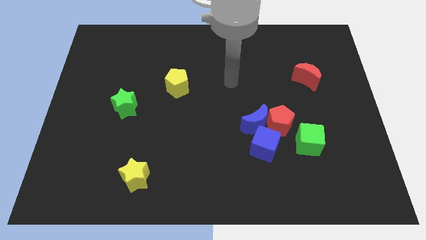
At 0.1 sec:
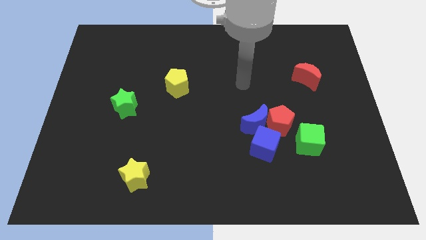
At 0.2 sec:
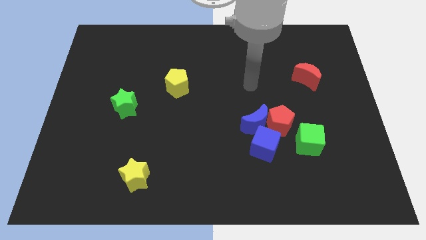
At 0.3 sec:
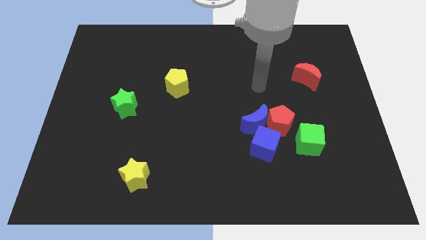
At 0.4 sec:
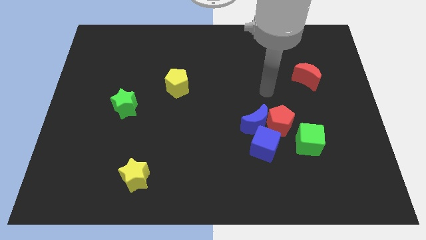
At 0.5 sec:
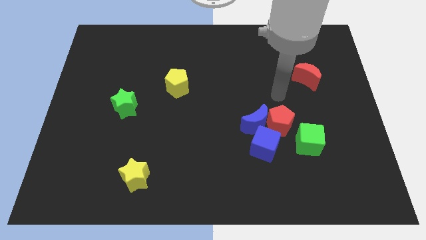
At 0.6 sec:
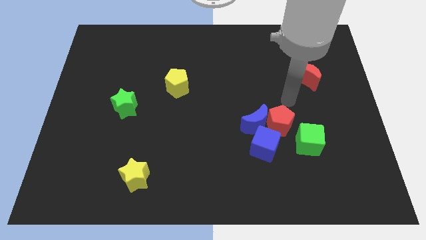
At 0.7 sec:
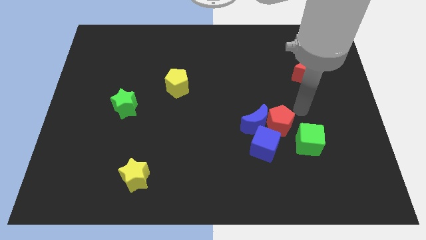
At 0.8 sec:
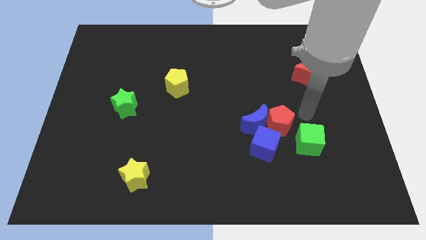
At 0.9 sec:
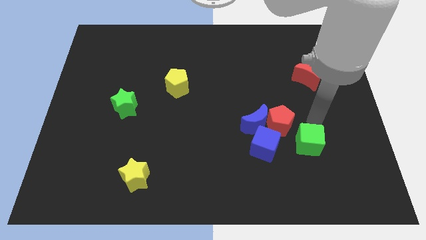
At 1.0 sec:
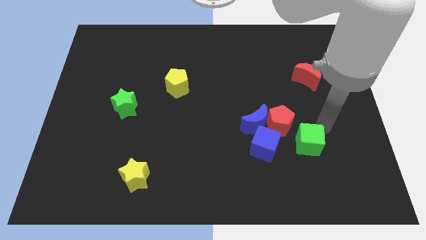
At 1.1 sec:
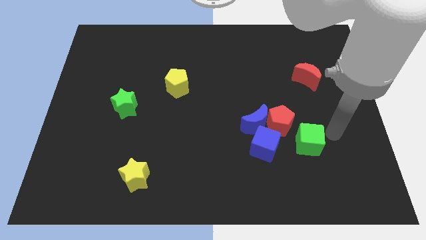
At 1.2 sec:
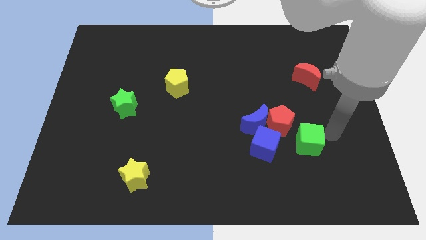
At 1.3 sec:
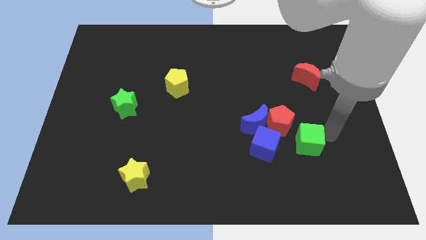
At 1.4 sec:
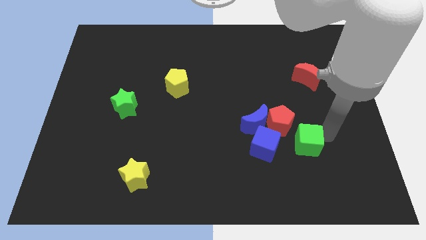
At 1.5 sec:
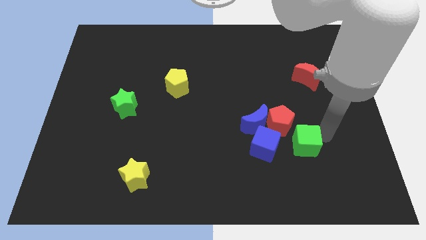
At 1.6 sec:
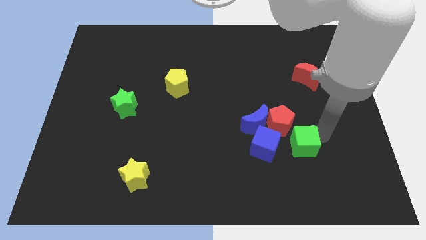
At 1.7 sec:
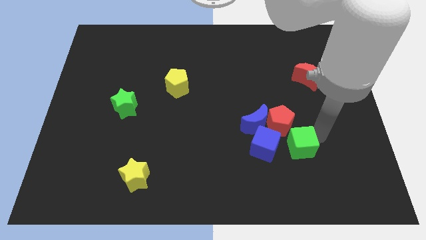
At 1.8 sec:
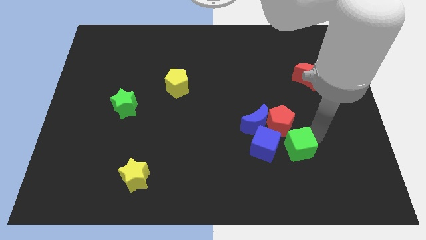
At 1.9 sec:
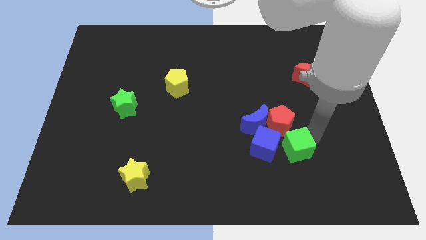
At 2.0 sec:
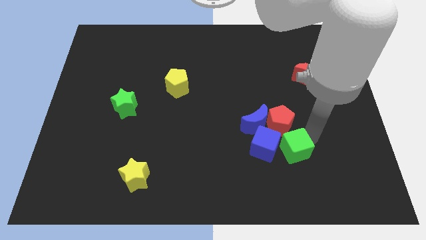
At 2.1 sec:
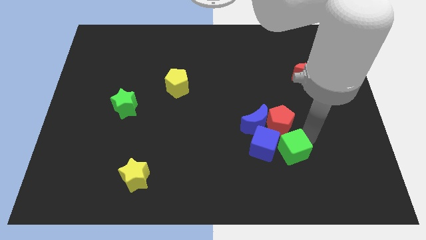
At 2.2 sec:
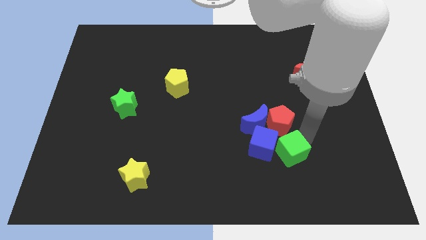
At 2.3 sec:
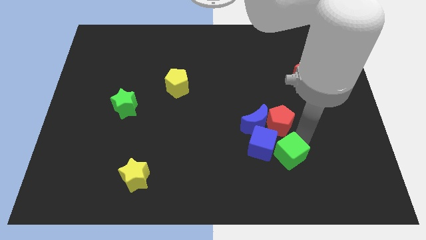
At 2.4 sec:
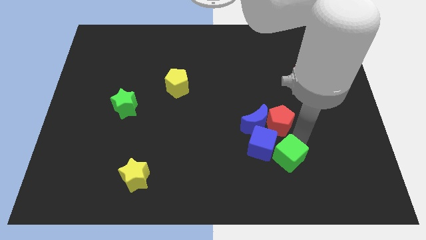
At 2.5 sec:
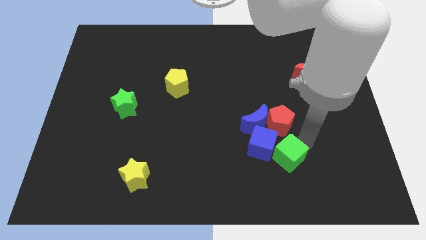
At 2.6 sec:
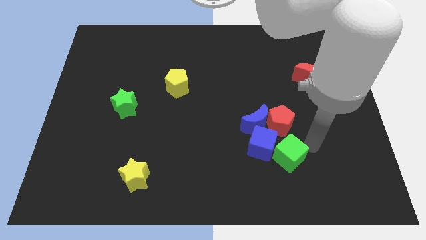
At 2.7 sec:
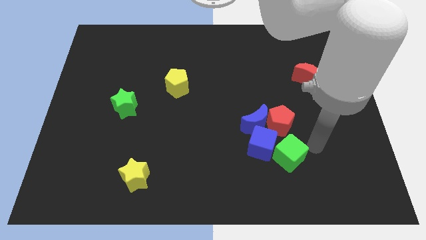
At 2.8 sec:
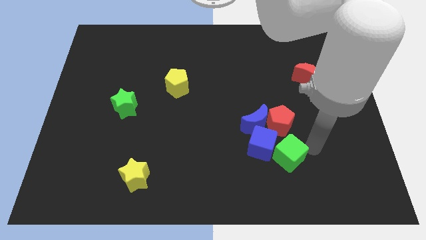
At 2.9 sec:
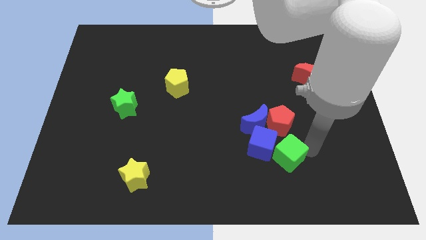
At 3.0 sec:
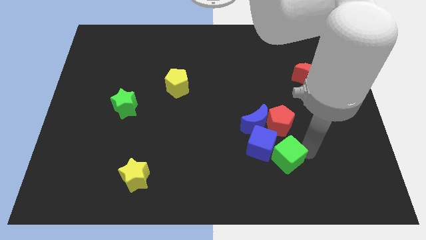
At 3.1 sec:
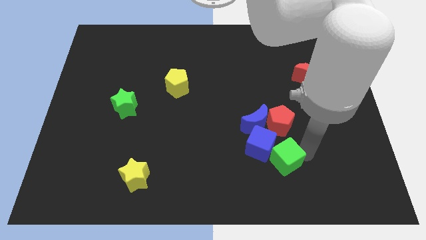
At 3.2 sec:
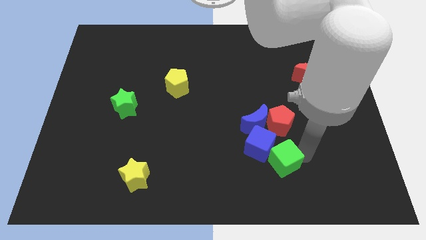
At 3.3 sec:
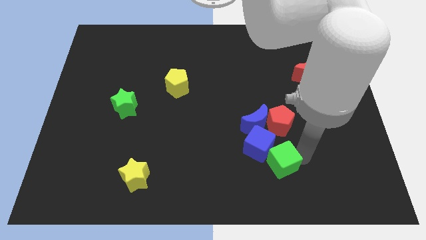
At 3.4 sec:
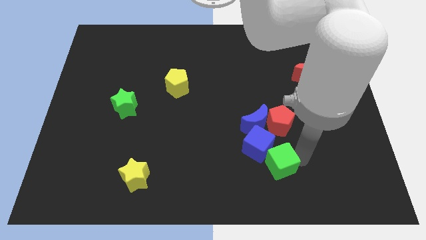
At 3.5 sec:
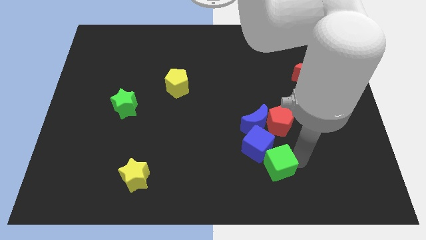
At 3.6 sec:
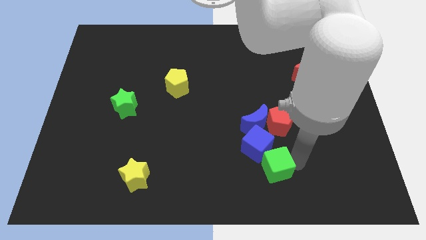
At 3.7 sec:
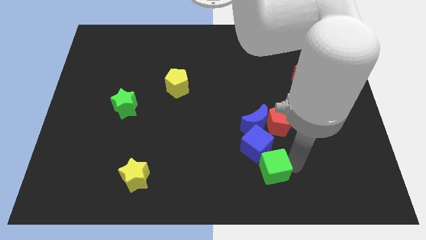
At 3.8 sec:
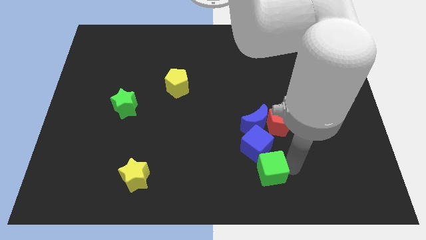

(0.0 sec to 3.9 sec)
slightly slide the green cube to the left

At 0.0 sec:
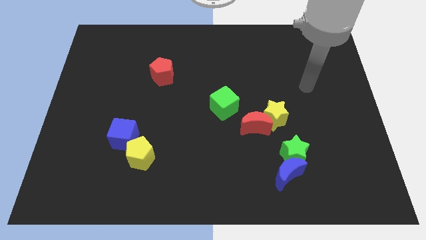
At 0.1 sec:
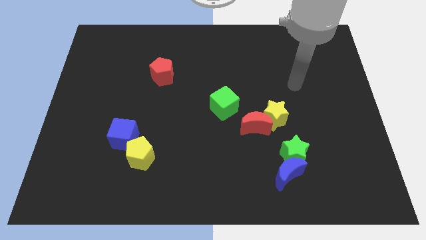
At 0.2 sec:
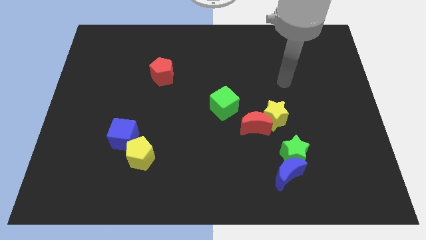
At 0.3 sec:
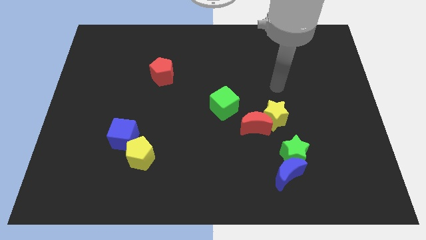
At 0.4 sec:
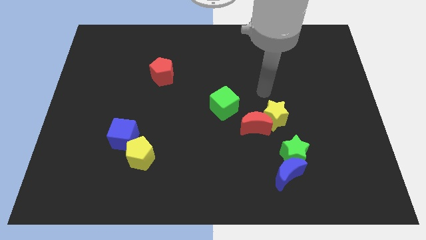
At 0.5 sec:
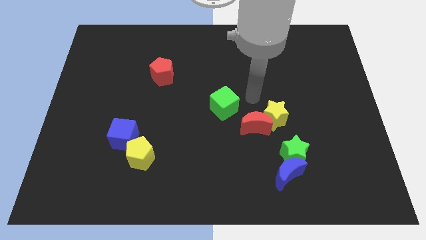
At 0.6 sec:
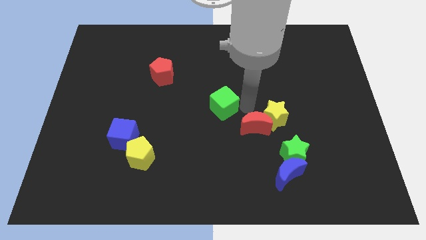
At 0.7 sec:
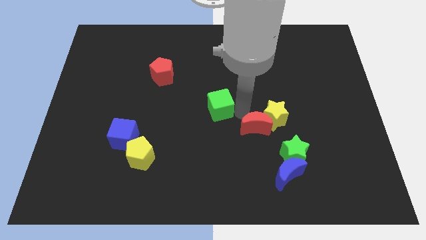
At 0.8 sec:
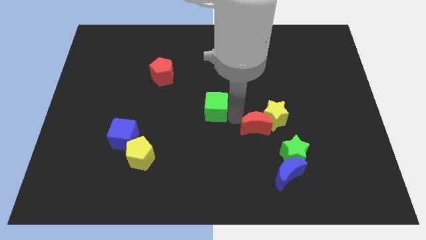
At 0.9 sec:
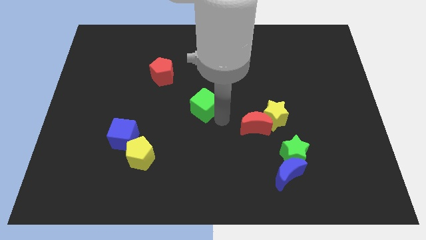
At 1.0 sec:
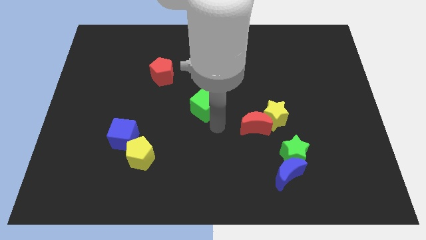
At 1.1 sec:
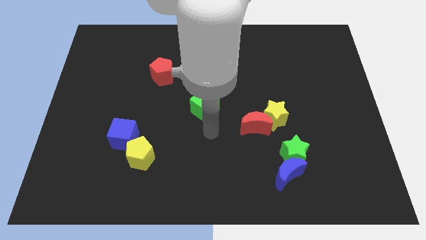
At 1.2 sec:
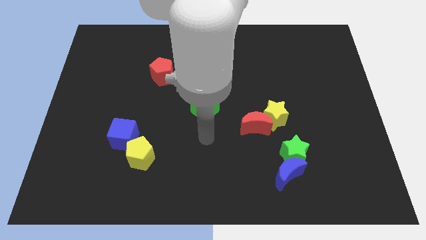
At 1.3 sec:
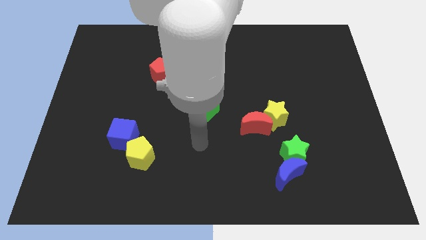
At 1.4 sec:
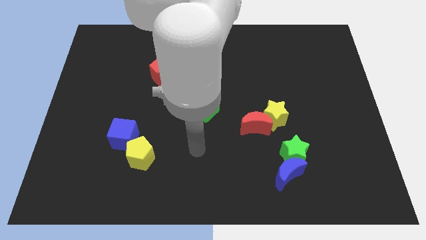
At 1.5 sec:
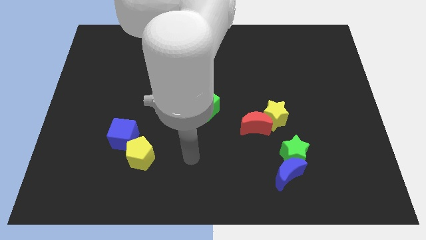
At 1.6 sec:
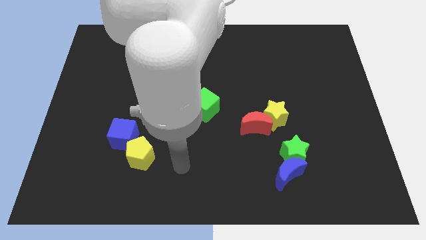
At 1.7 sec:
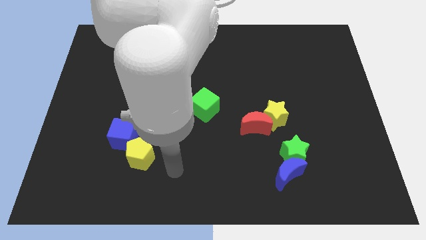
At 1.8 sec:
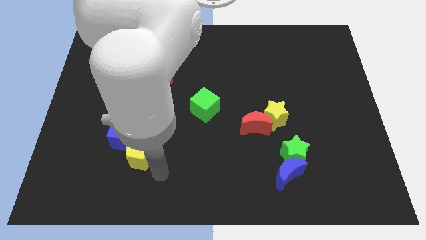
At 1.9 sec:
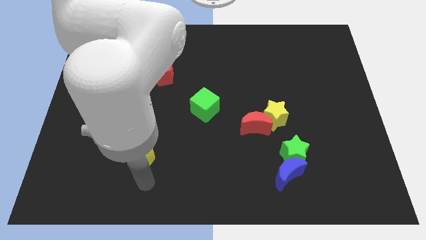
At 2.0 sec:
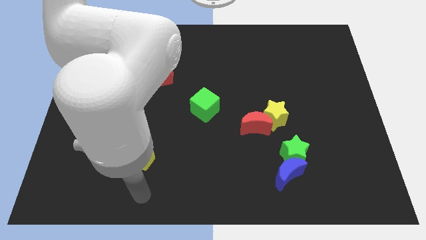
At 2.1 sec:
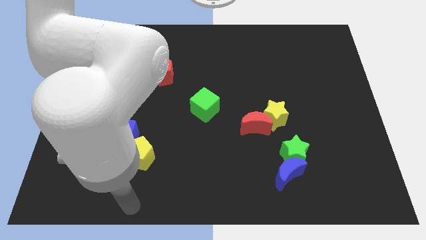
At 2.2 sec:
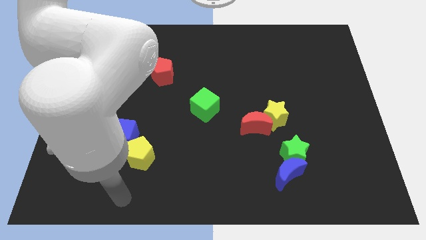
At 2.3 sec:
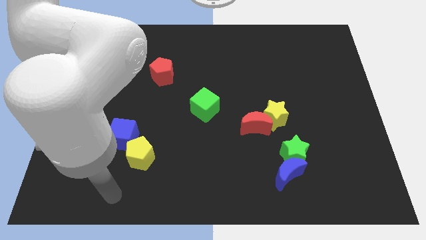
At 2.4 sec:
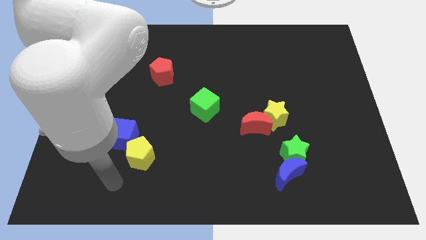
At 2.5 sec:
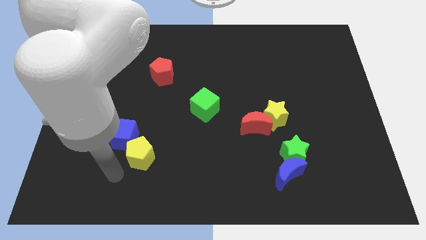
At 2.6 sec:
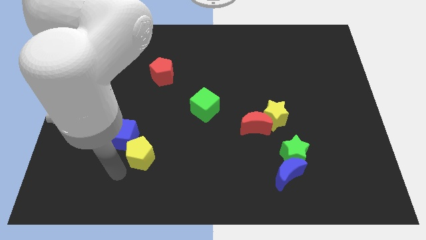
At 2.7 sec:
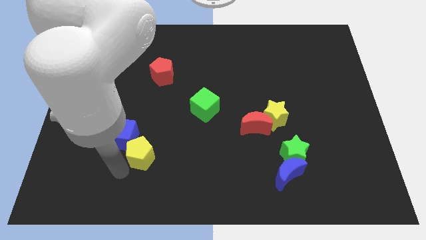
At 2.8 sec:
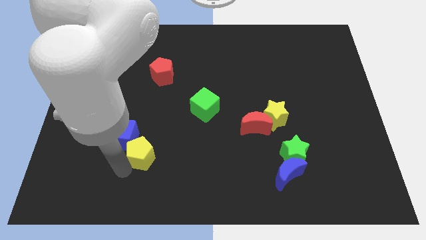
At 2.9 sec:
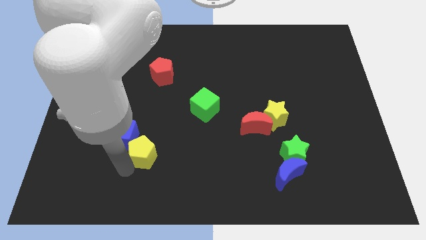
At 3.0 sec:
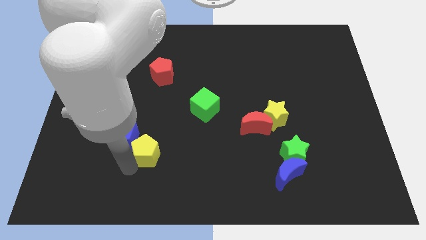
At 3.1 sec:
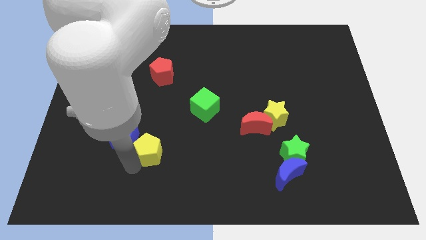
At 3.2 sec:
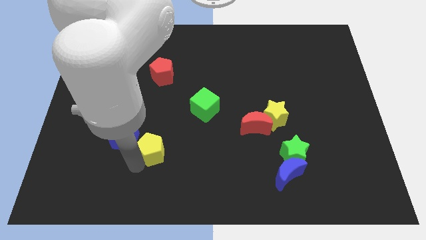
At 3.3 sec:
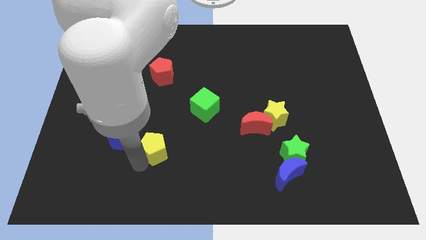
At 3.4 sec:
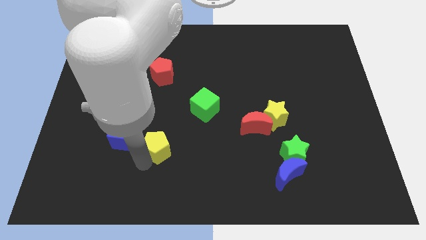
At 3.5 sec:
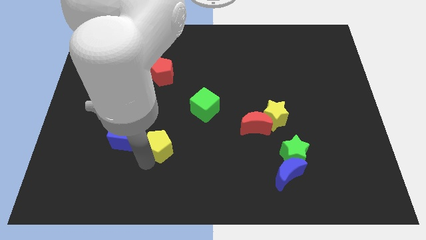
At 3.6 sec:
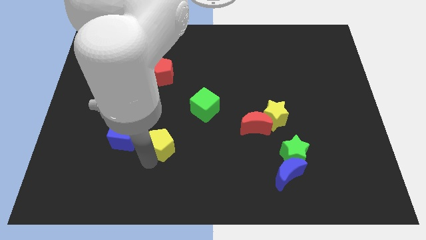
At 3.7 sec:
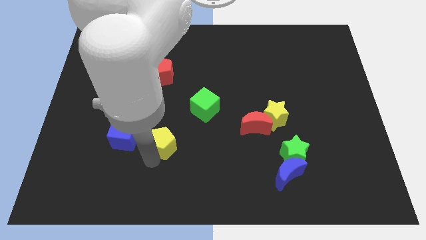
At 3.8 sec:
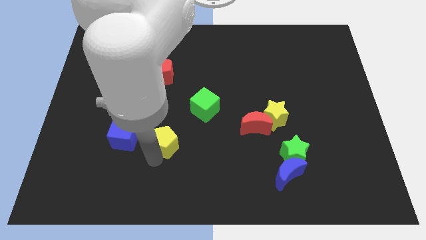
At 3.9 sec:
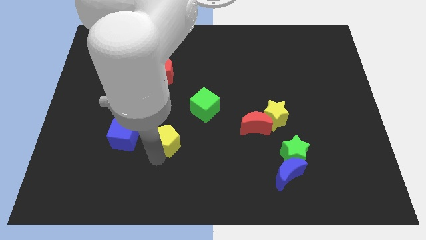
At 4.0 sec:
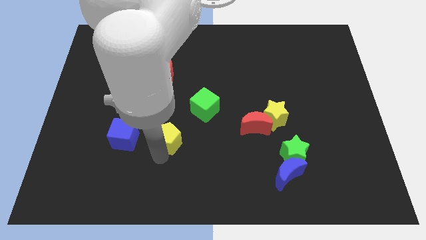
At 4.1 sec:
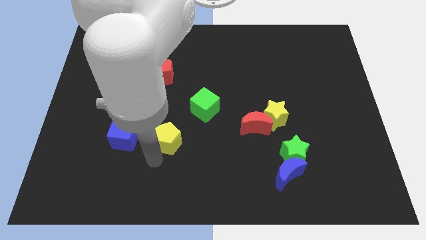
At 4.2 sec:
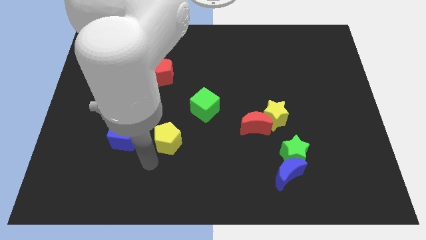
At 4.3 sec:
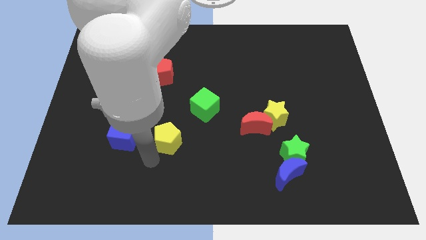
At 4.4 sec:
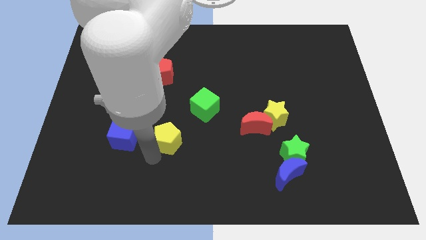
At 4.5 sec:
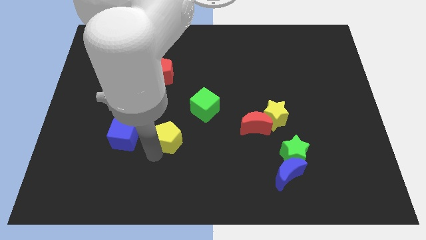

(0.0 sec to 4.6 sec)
push the yellow pentagon up and right somewhat
